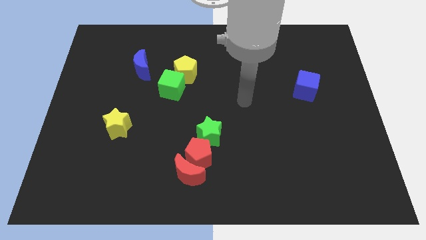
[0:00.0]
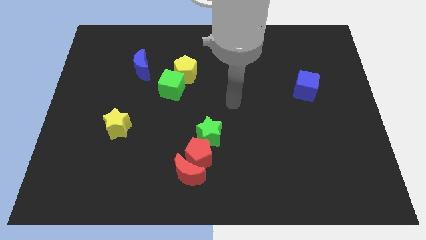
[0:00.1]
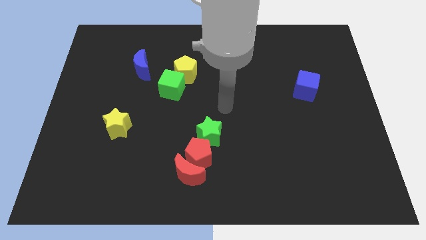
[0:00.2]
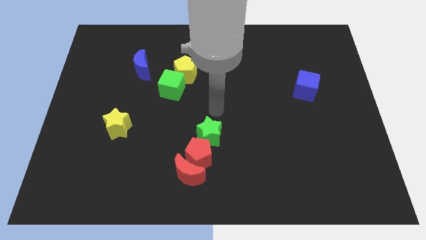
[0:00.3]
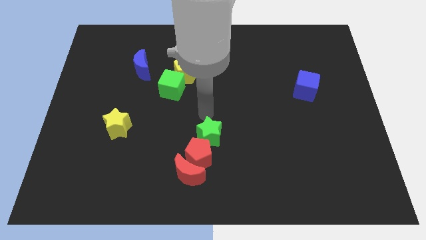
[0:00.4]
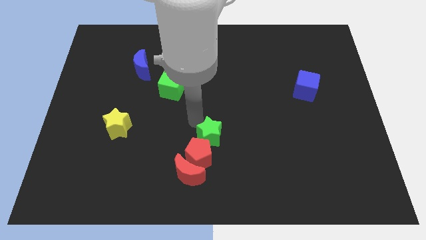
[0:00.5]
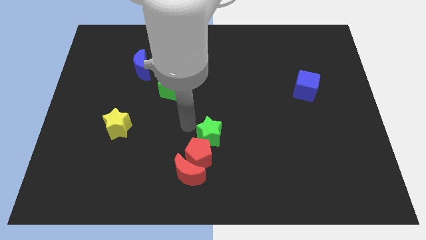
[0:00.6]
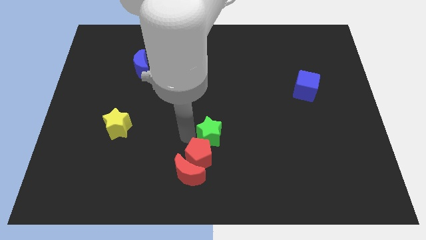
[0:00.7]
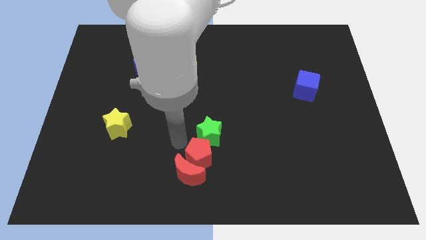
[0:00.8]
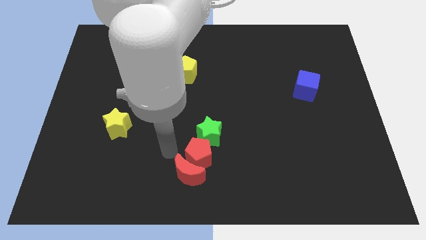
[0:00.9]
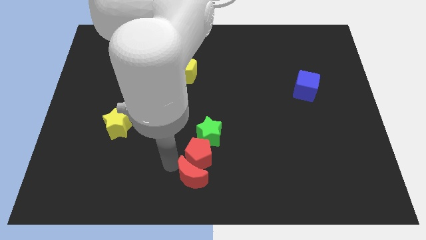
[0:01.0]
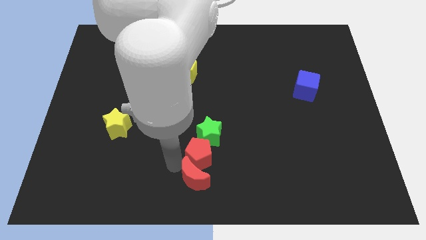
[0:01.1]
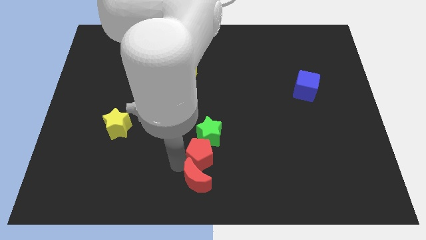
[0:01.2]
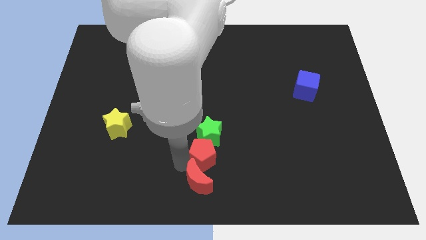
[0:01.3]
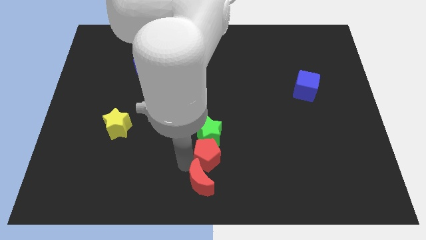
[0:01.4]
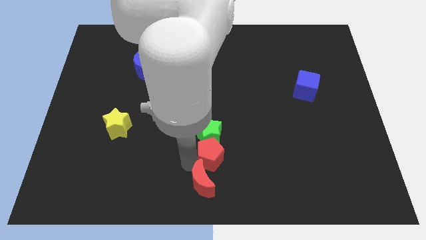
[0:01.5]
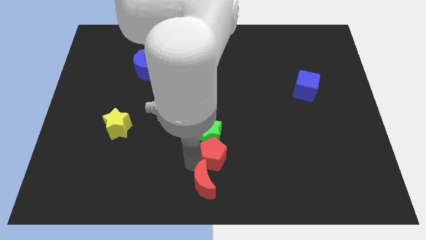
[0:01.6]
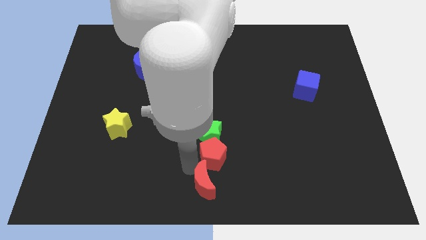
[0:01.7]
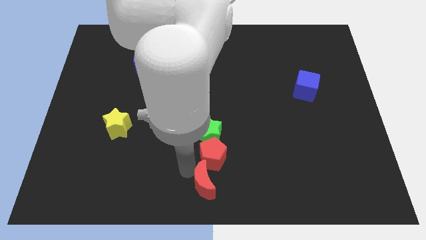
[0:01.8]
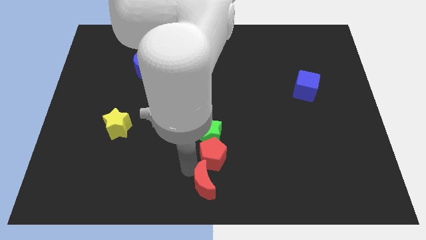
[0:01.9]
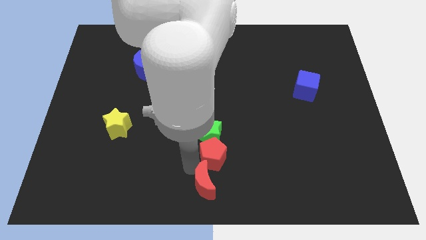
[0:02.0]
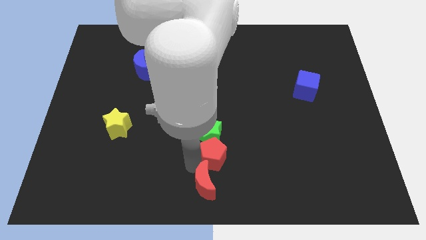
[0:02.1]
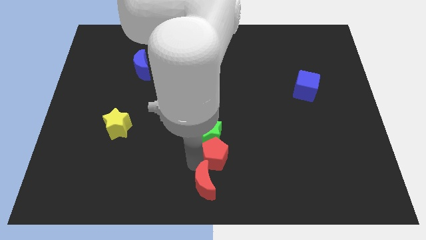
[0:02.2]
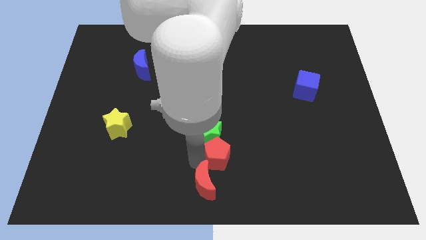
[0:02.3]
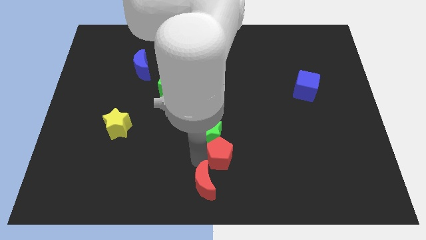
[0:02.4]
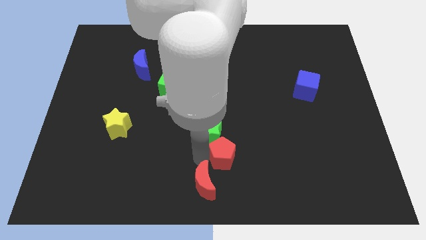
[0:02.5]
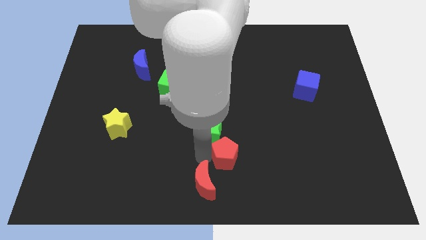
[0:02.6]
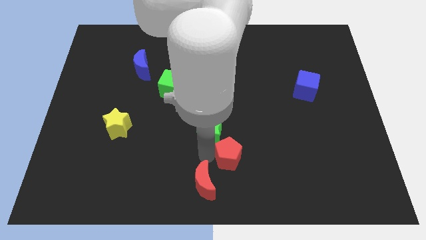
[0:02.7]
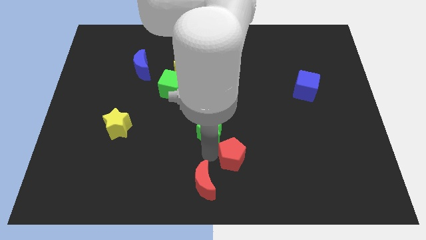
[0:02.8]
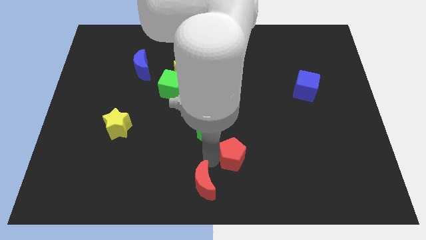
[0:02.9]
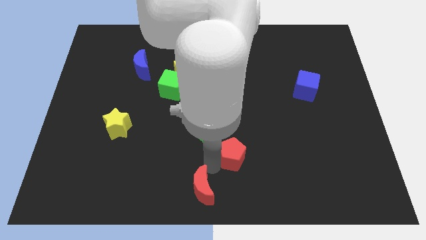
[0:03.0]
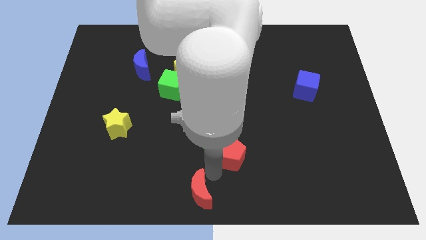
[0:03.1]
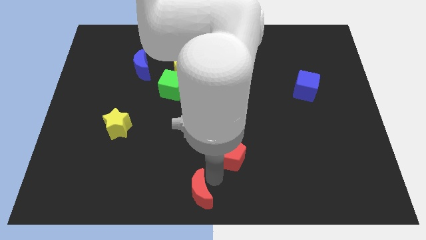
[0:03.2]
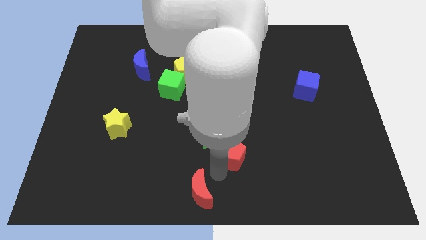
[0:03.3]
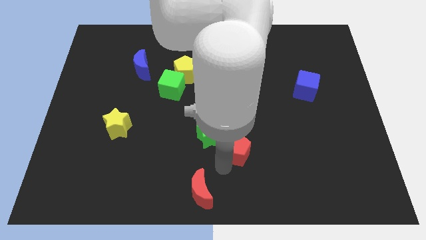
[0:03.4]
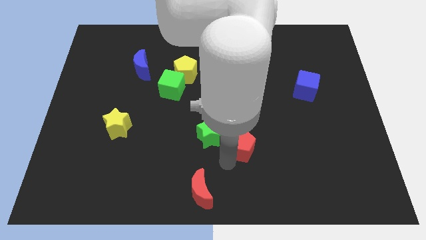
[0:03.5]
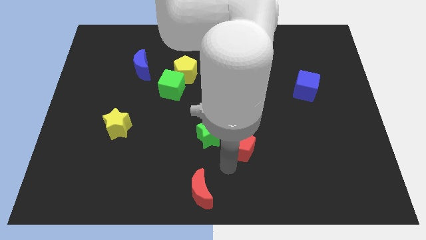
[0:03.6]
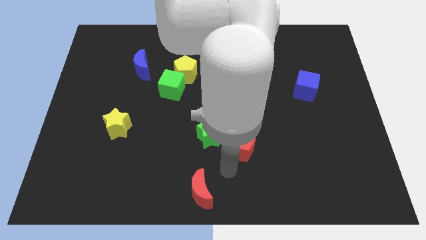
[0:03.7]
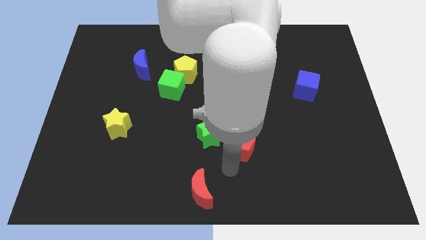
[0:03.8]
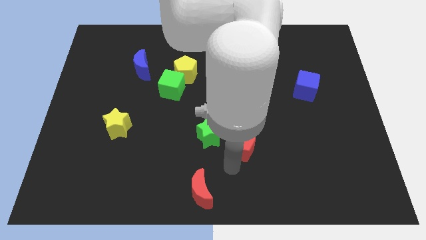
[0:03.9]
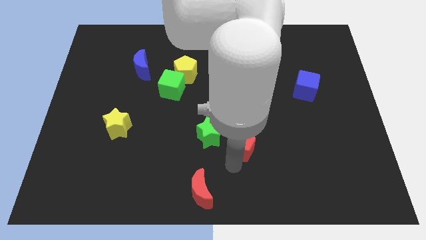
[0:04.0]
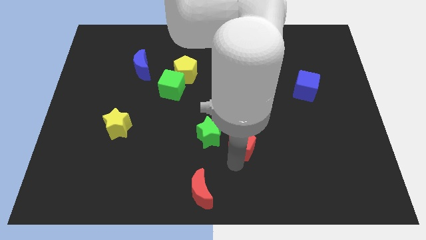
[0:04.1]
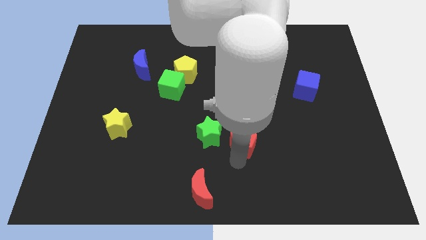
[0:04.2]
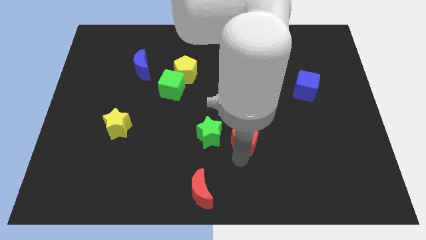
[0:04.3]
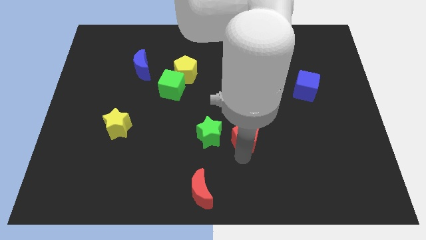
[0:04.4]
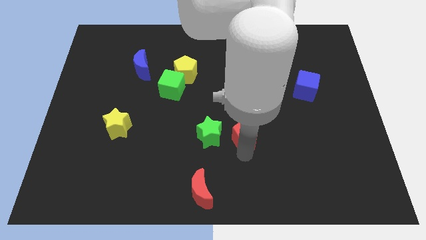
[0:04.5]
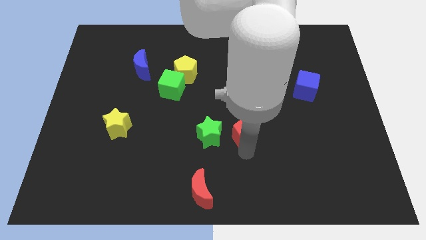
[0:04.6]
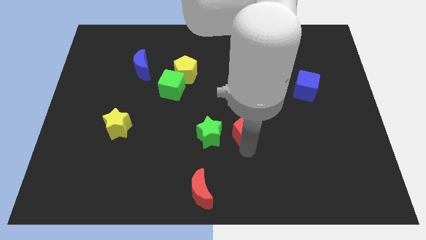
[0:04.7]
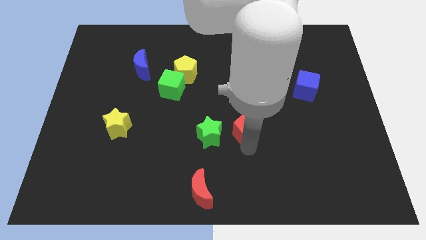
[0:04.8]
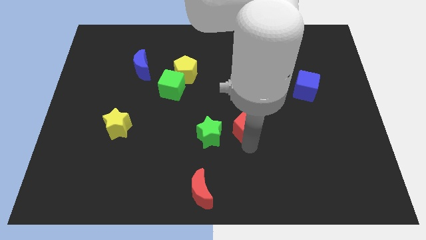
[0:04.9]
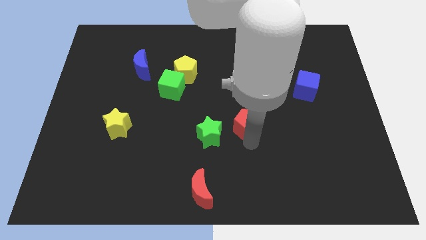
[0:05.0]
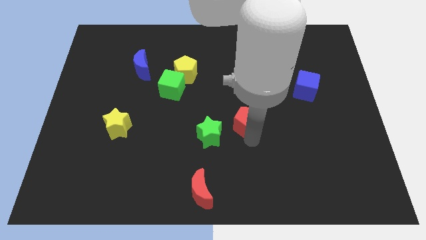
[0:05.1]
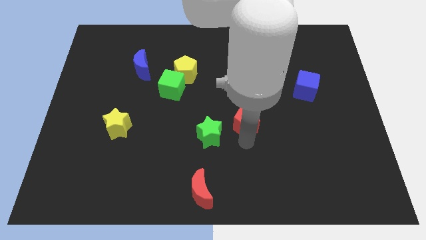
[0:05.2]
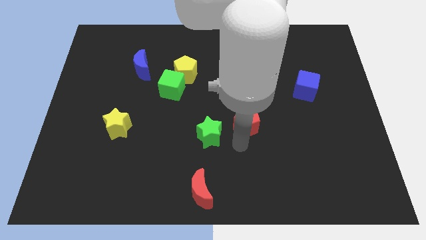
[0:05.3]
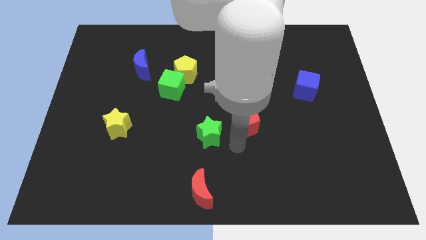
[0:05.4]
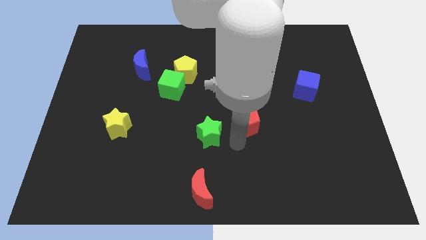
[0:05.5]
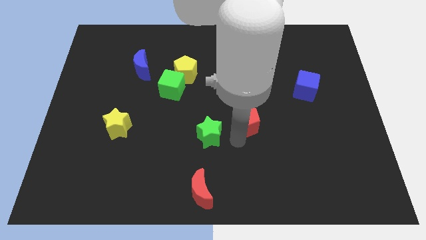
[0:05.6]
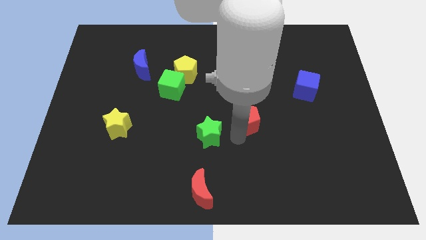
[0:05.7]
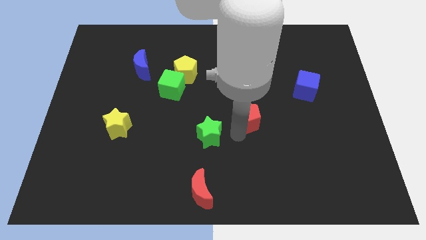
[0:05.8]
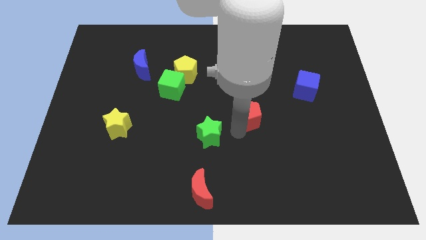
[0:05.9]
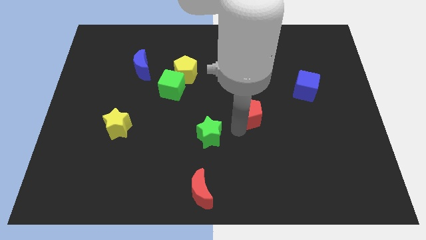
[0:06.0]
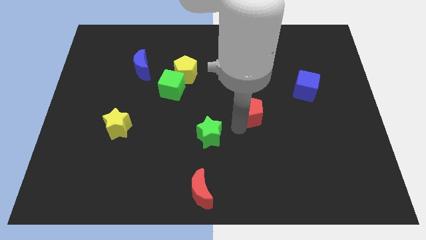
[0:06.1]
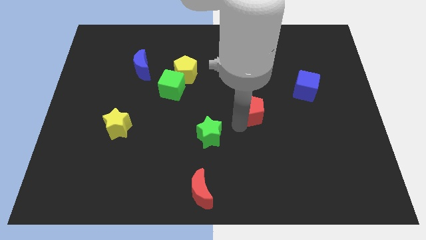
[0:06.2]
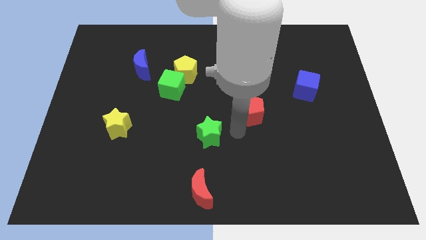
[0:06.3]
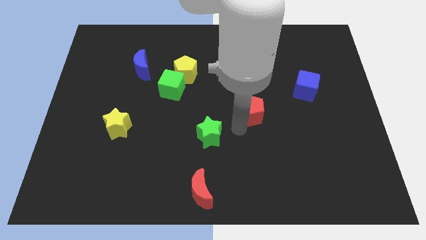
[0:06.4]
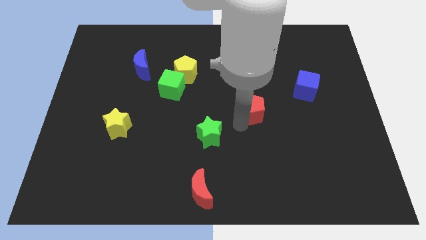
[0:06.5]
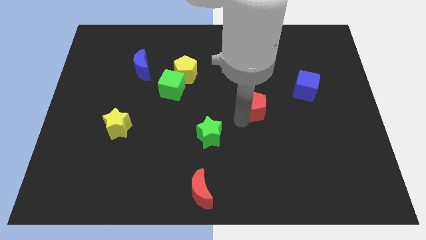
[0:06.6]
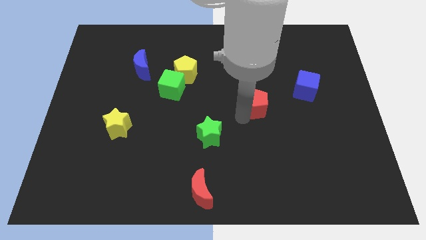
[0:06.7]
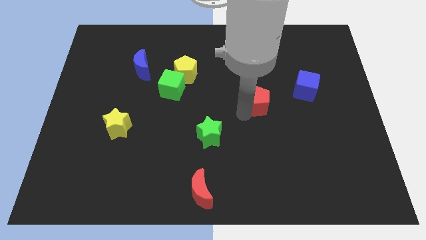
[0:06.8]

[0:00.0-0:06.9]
push the red pentagon diagonally upwards and to the right

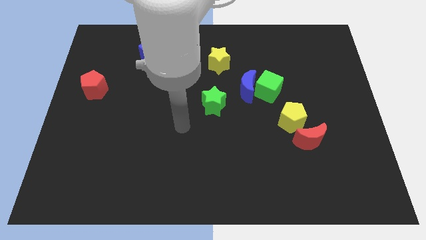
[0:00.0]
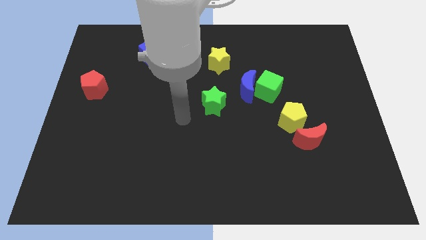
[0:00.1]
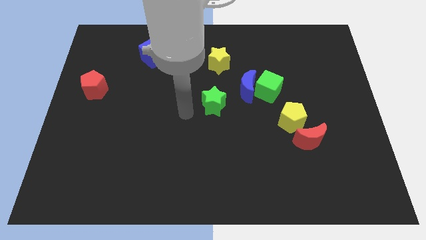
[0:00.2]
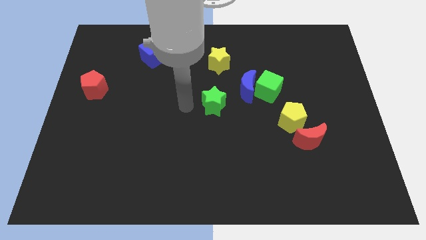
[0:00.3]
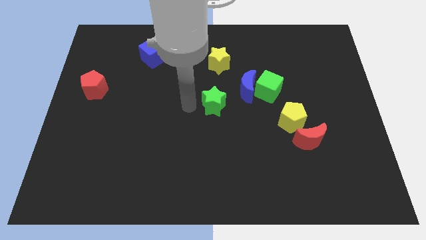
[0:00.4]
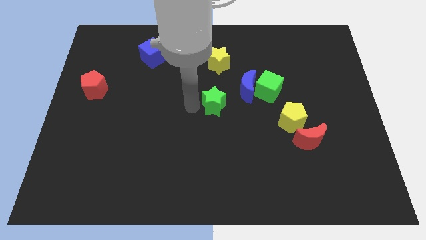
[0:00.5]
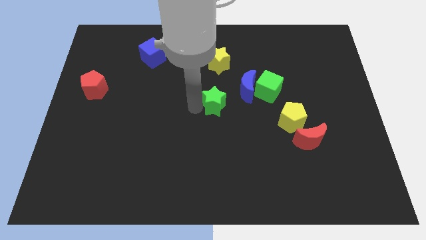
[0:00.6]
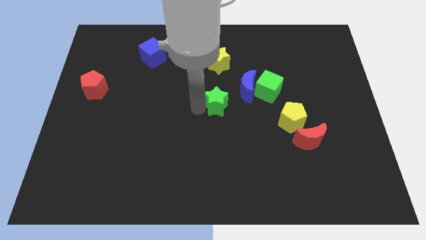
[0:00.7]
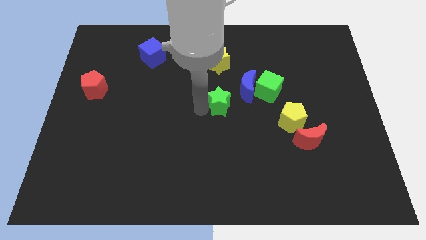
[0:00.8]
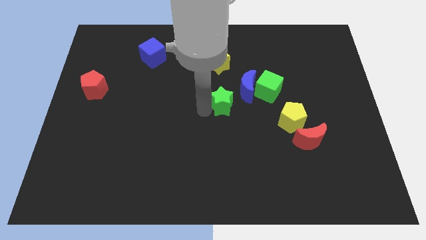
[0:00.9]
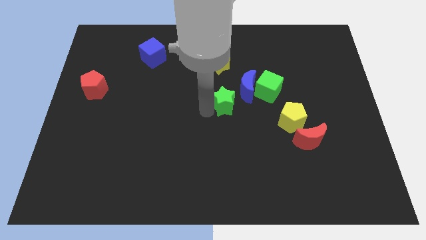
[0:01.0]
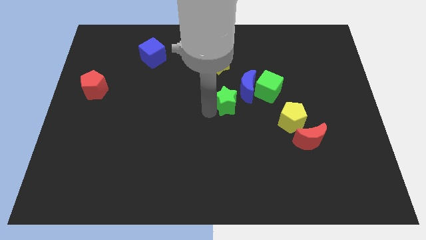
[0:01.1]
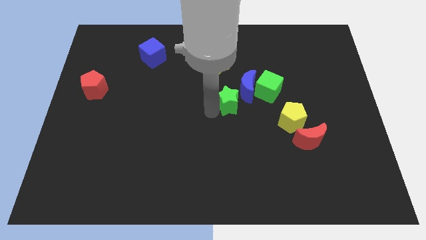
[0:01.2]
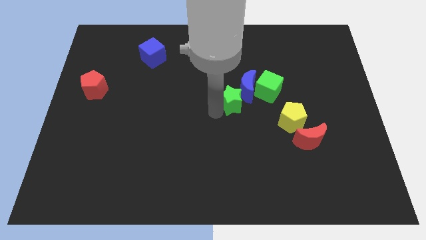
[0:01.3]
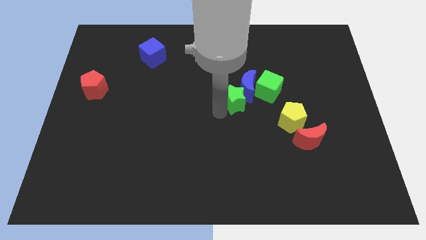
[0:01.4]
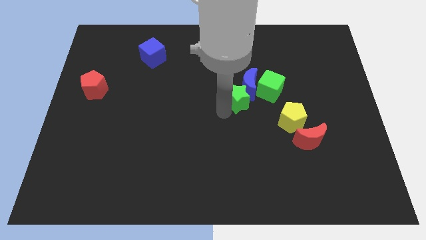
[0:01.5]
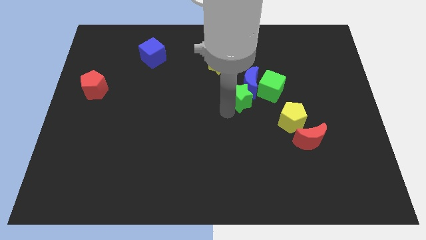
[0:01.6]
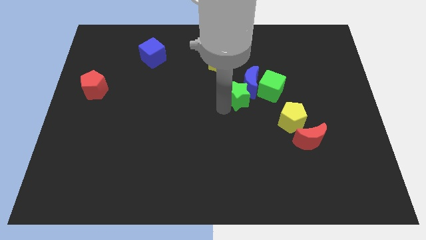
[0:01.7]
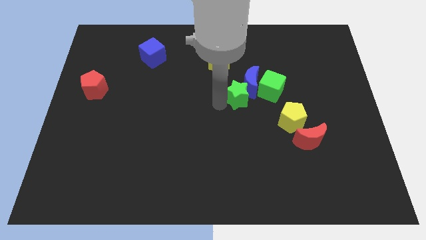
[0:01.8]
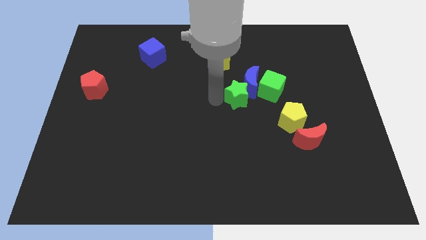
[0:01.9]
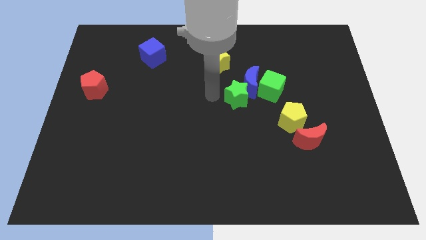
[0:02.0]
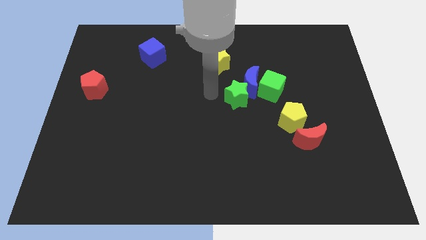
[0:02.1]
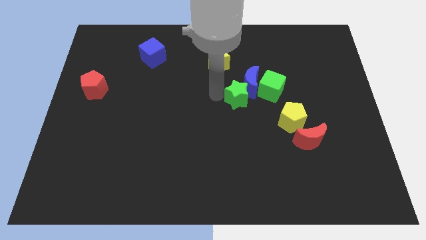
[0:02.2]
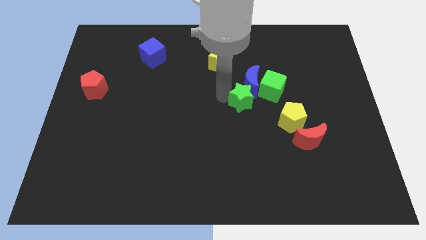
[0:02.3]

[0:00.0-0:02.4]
push the green star somewhat right
